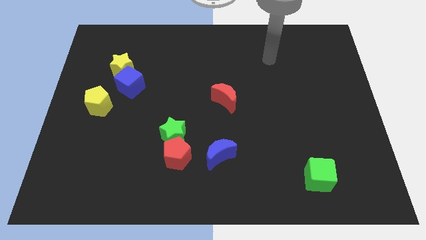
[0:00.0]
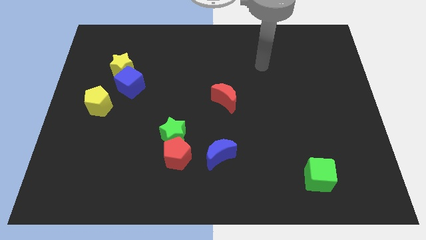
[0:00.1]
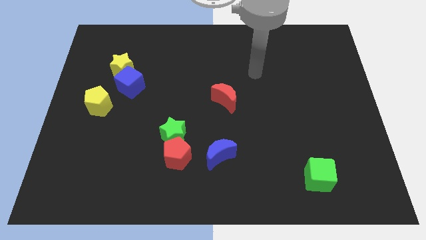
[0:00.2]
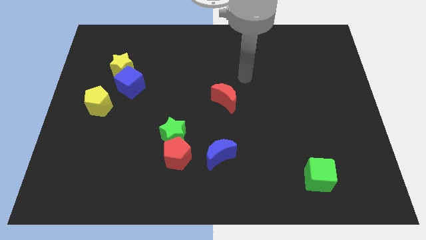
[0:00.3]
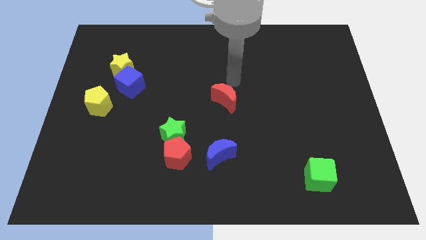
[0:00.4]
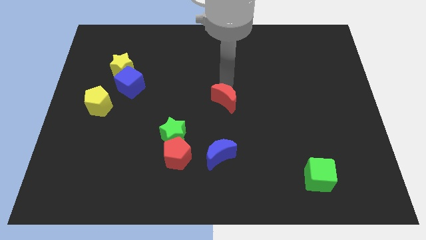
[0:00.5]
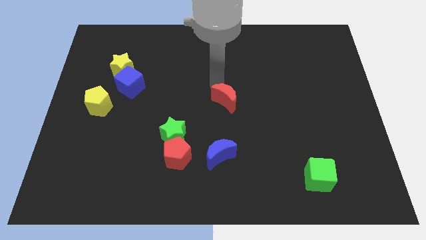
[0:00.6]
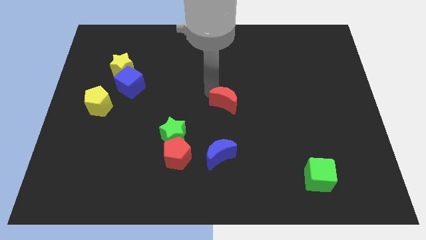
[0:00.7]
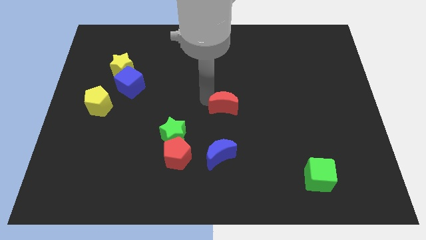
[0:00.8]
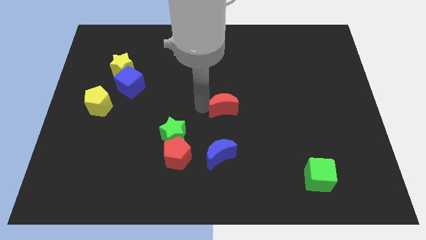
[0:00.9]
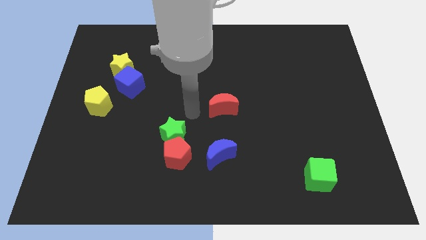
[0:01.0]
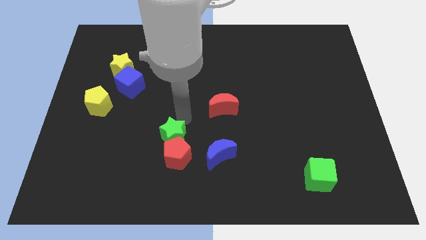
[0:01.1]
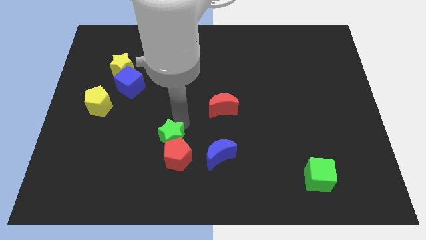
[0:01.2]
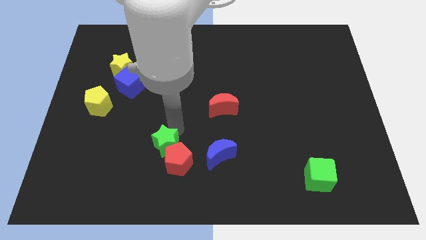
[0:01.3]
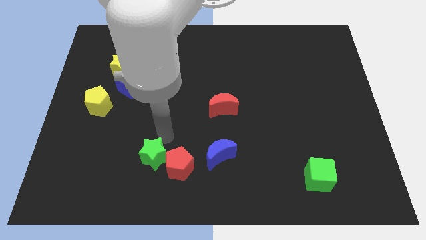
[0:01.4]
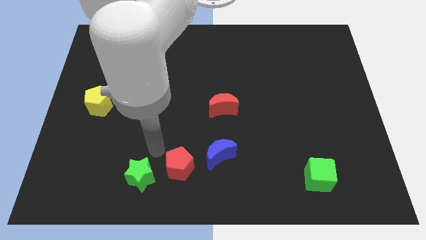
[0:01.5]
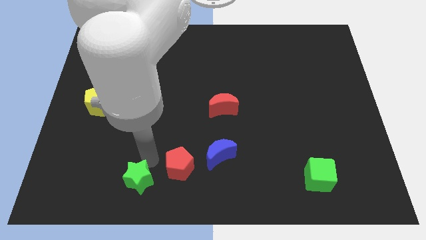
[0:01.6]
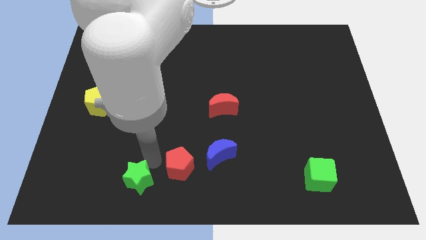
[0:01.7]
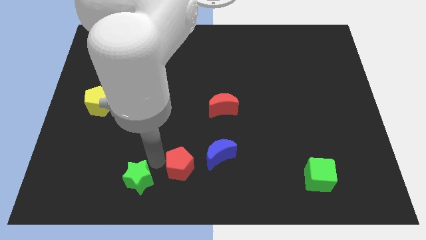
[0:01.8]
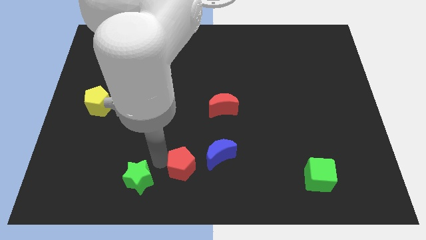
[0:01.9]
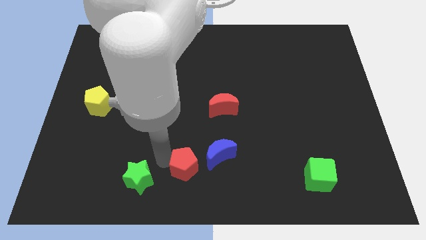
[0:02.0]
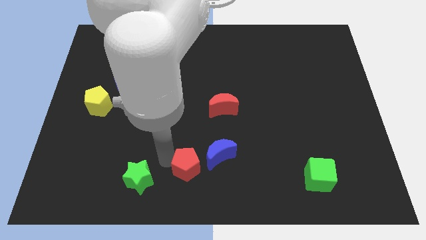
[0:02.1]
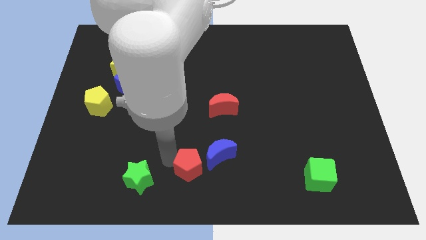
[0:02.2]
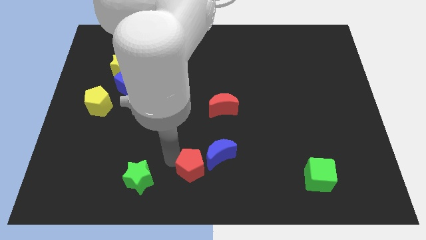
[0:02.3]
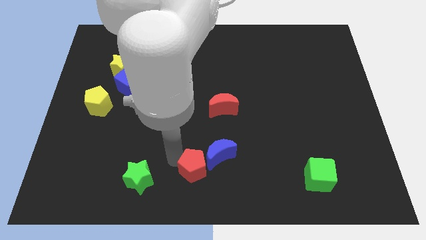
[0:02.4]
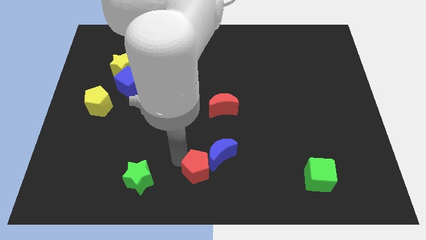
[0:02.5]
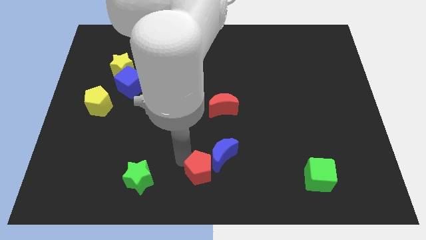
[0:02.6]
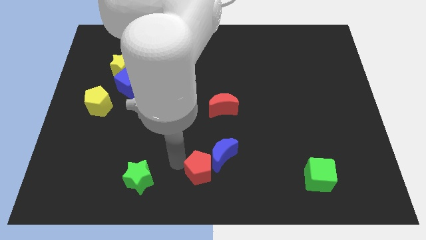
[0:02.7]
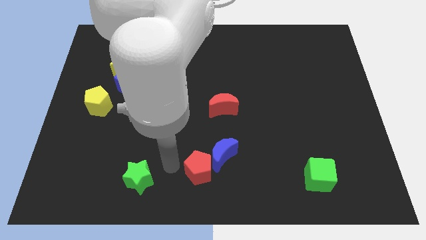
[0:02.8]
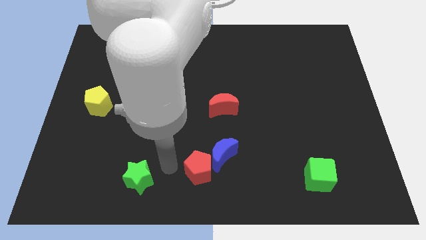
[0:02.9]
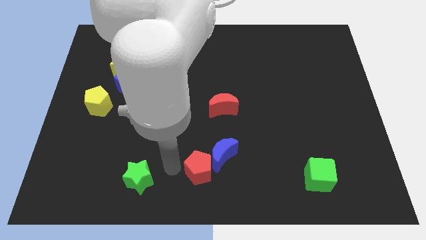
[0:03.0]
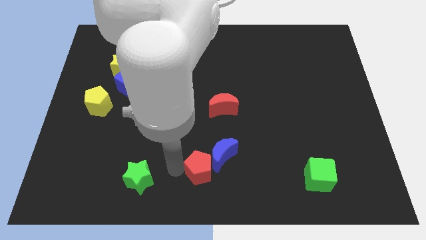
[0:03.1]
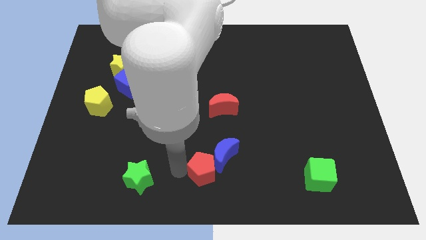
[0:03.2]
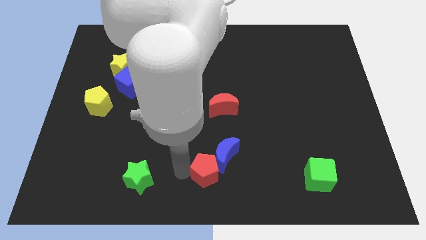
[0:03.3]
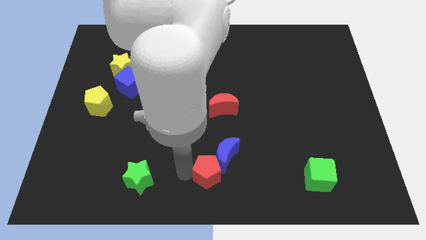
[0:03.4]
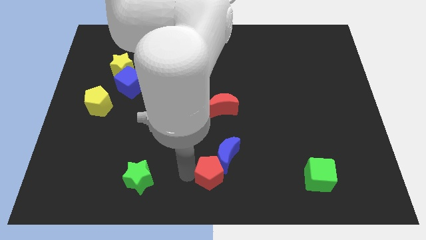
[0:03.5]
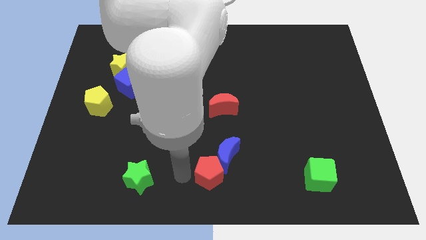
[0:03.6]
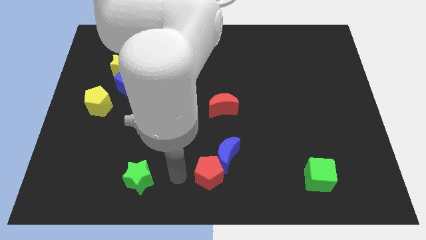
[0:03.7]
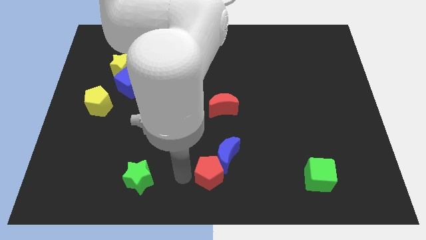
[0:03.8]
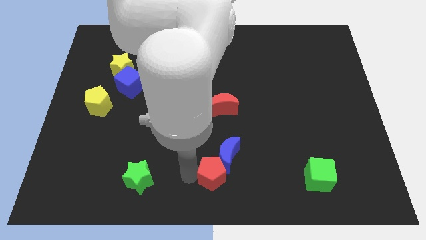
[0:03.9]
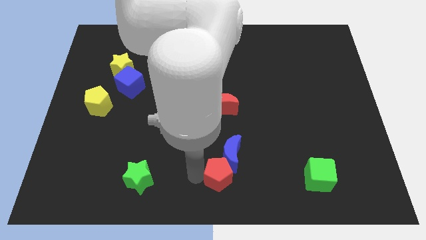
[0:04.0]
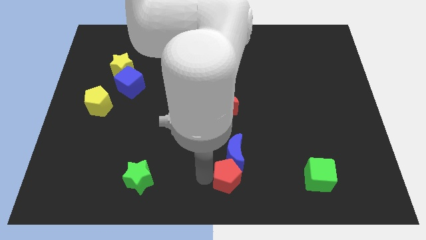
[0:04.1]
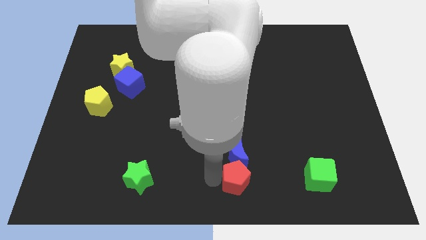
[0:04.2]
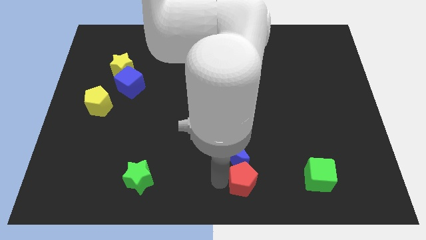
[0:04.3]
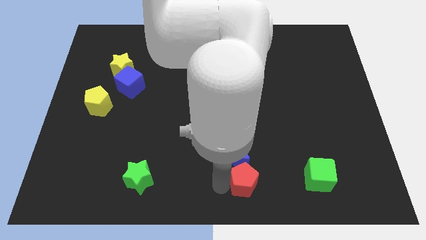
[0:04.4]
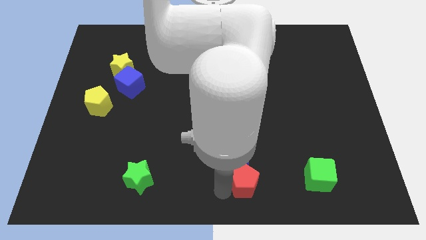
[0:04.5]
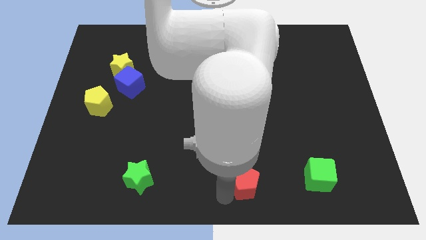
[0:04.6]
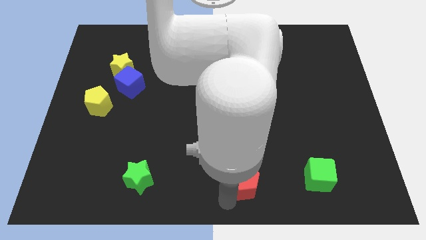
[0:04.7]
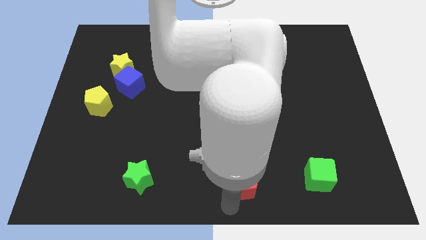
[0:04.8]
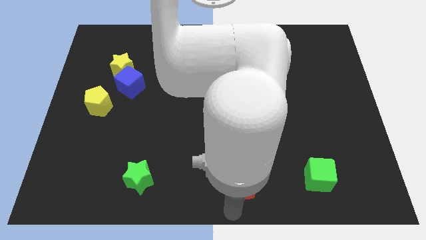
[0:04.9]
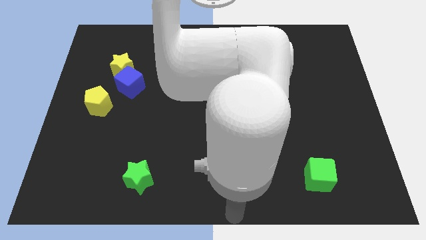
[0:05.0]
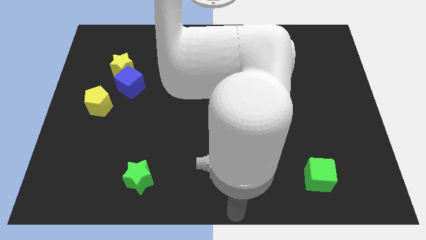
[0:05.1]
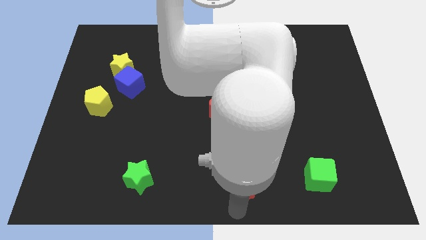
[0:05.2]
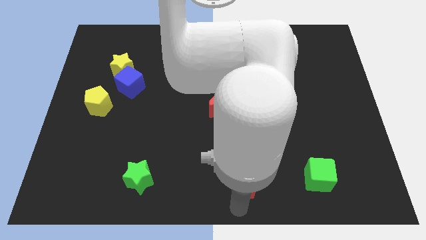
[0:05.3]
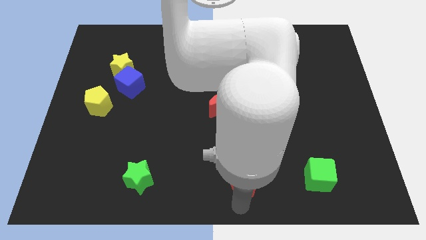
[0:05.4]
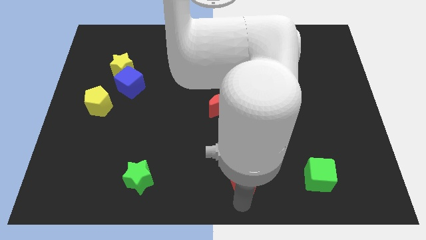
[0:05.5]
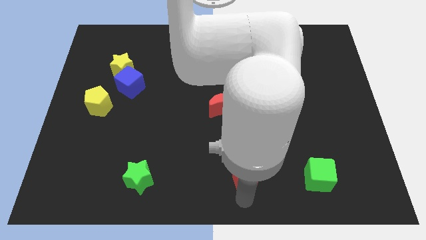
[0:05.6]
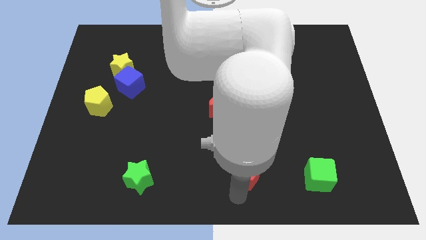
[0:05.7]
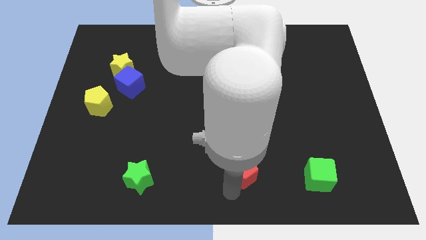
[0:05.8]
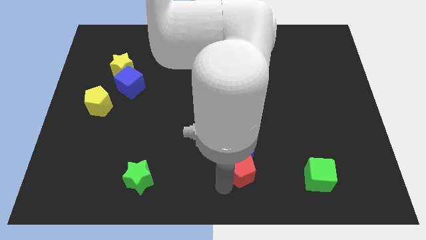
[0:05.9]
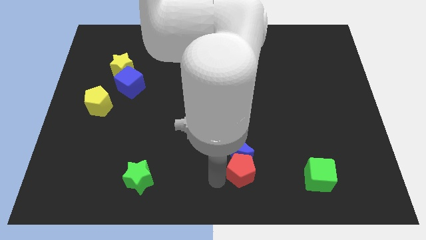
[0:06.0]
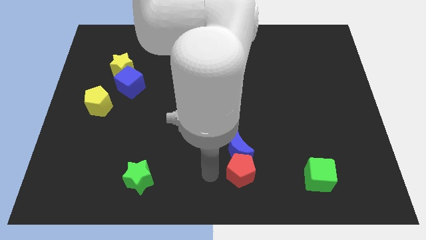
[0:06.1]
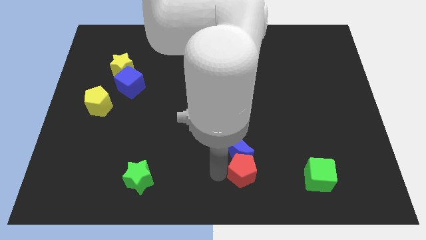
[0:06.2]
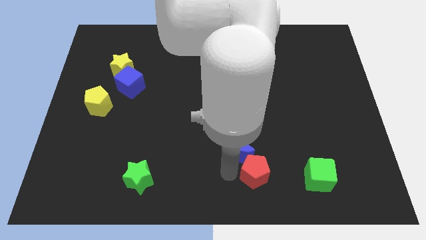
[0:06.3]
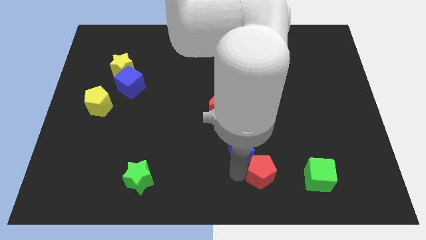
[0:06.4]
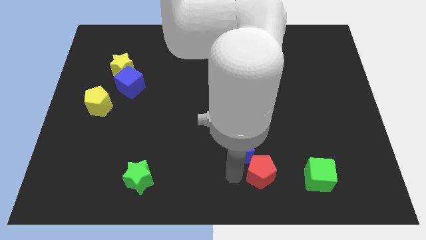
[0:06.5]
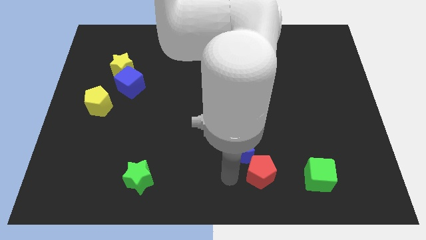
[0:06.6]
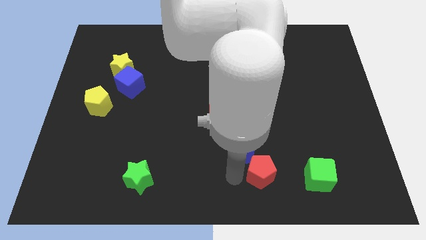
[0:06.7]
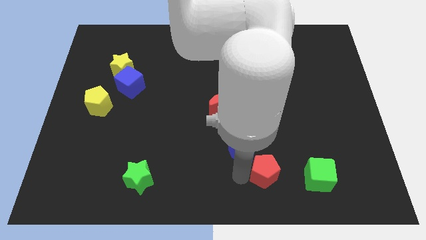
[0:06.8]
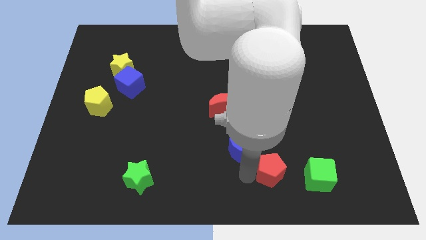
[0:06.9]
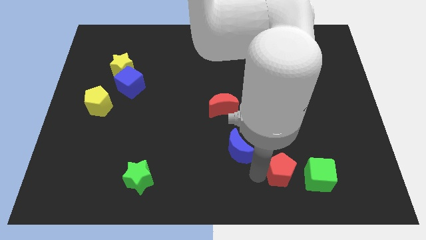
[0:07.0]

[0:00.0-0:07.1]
slide the red pentagon right

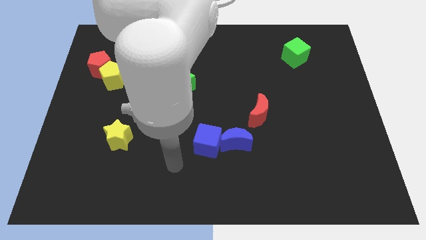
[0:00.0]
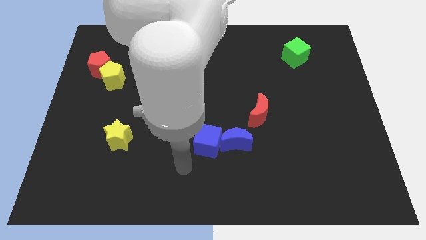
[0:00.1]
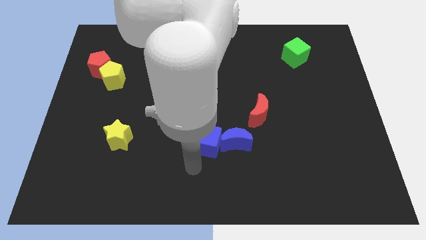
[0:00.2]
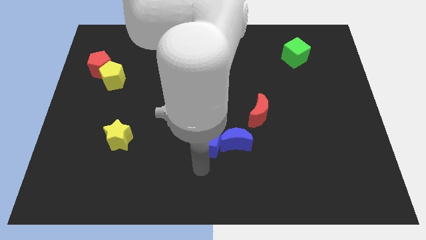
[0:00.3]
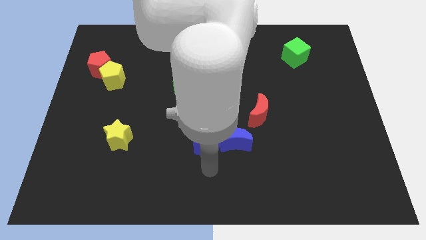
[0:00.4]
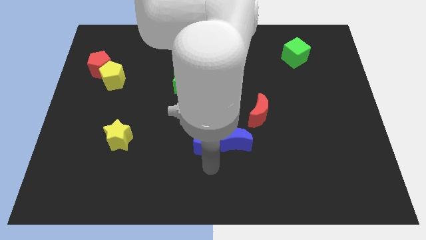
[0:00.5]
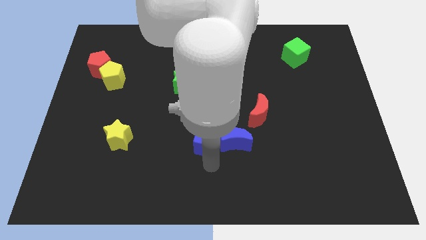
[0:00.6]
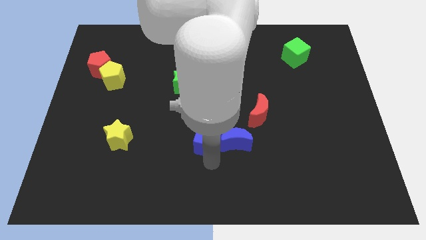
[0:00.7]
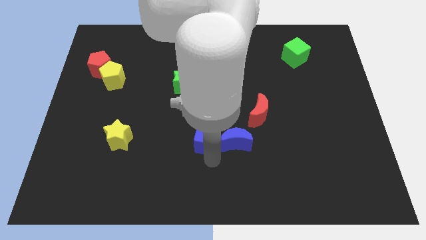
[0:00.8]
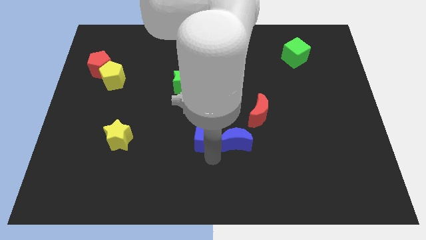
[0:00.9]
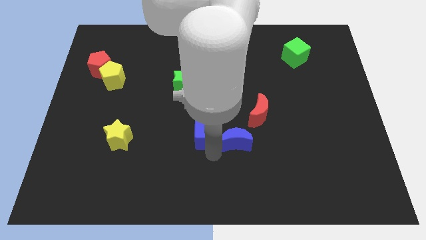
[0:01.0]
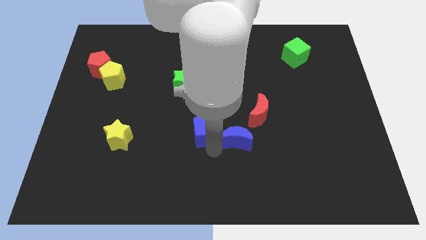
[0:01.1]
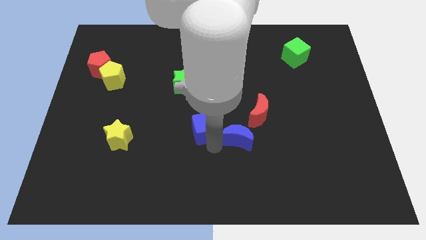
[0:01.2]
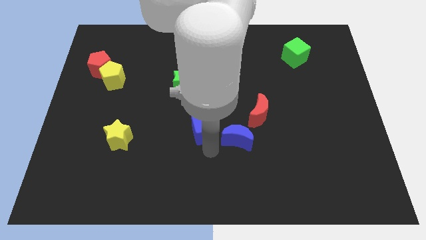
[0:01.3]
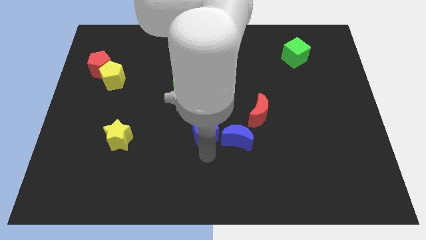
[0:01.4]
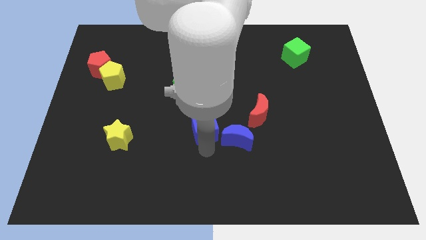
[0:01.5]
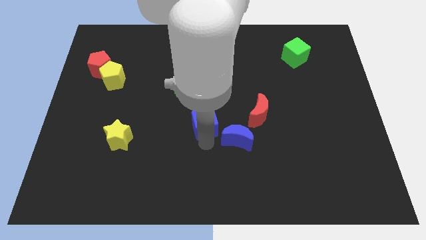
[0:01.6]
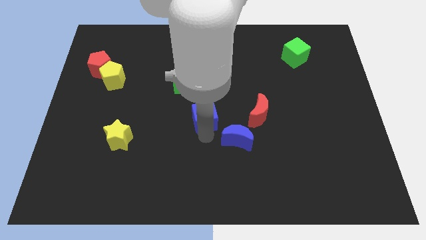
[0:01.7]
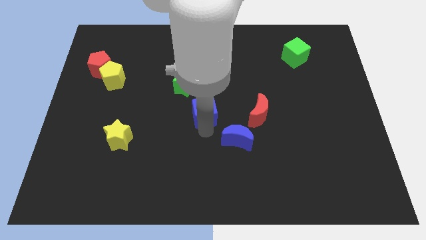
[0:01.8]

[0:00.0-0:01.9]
move the blue cube upwards a little
